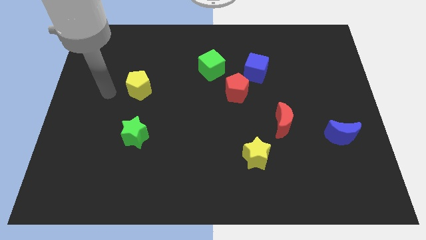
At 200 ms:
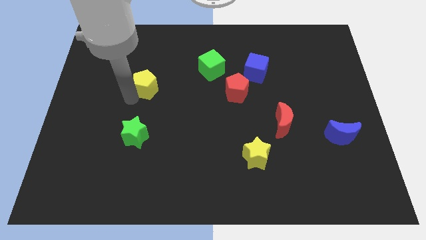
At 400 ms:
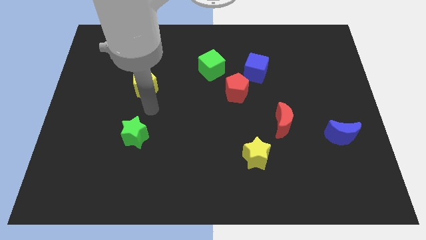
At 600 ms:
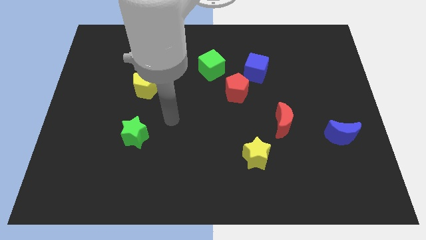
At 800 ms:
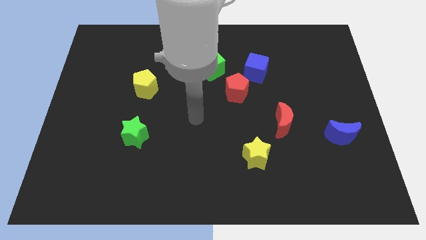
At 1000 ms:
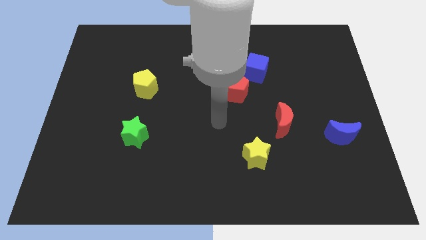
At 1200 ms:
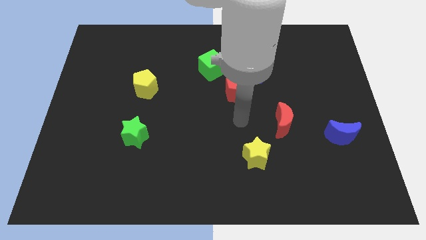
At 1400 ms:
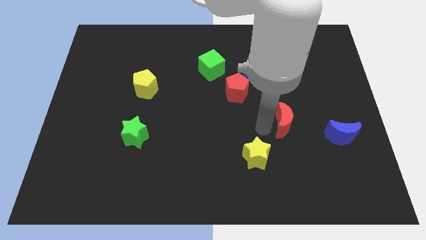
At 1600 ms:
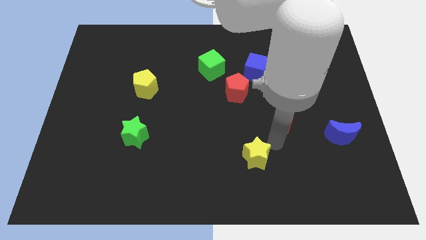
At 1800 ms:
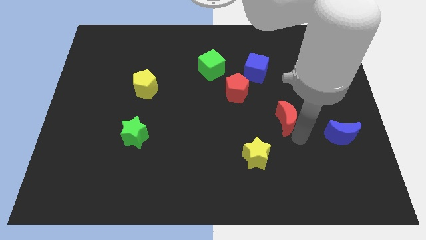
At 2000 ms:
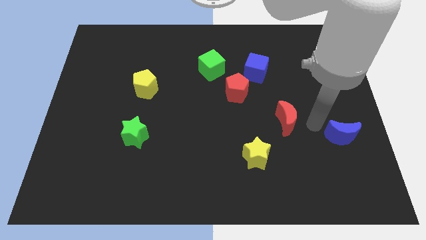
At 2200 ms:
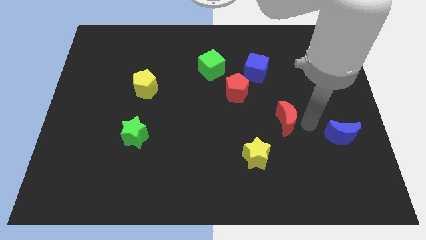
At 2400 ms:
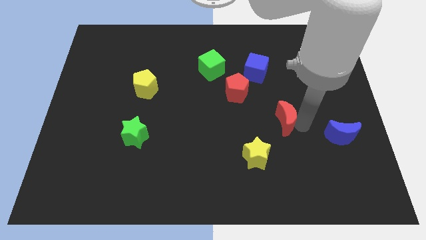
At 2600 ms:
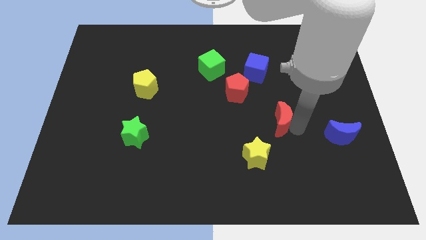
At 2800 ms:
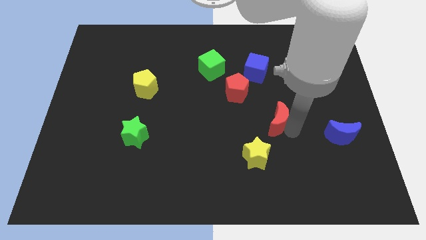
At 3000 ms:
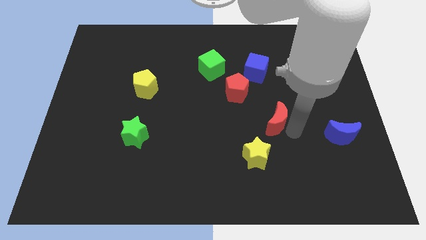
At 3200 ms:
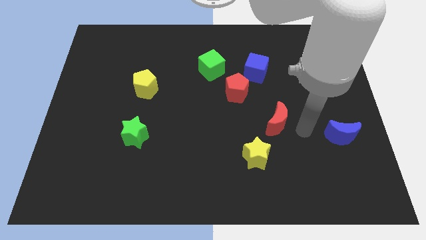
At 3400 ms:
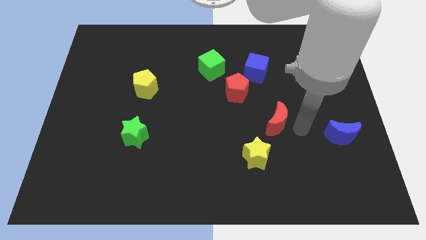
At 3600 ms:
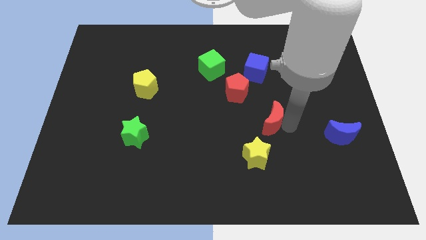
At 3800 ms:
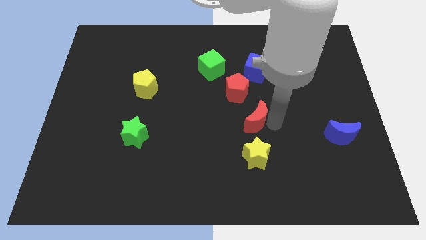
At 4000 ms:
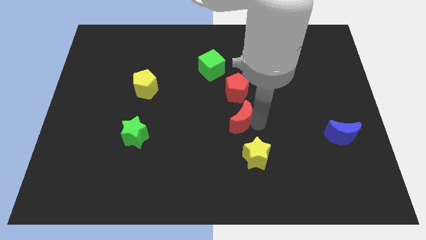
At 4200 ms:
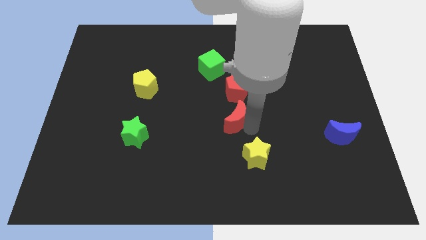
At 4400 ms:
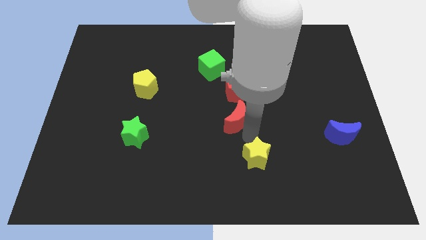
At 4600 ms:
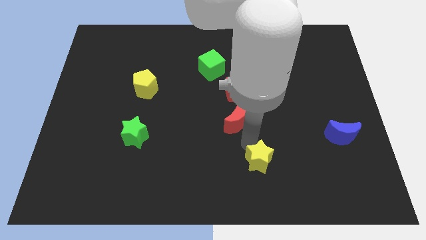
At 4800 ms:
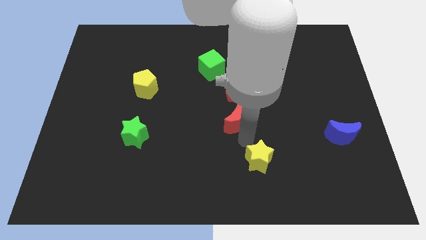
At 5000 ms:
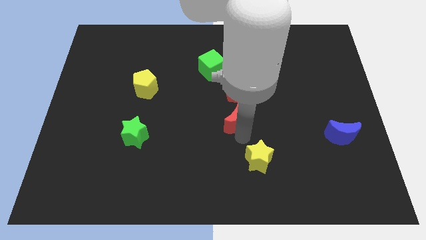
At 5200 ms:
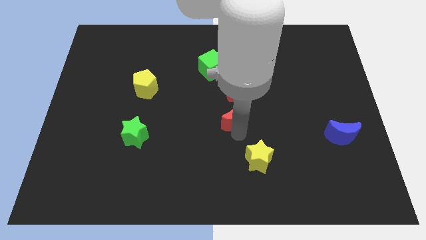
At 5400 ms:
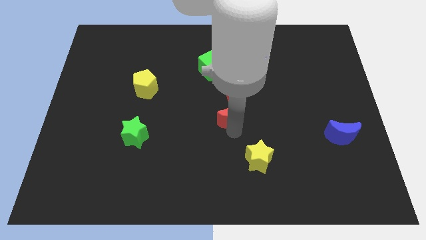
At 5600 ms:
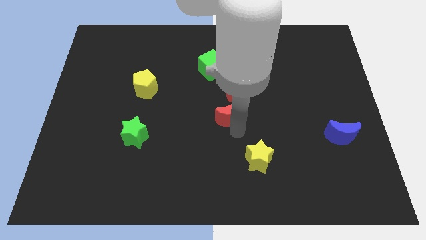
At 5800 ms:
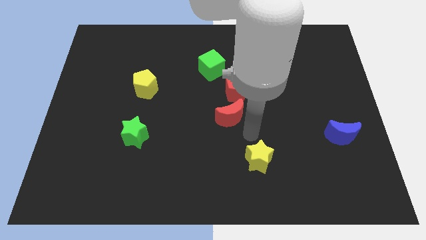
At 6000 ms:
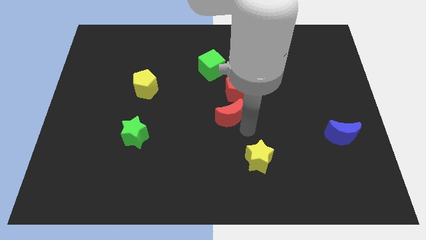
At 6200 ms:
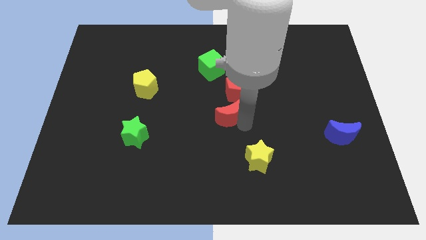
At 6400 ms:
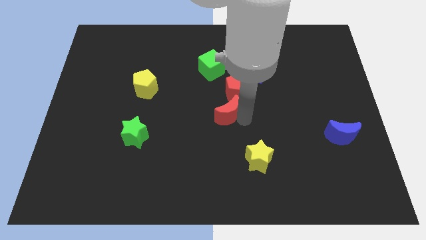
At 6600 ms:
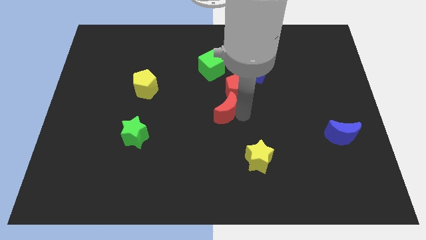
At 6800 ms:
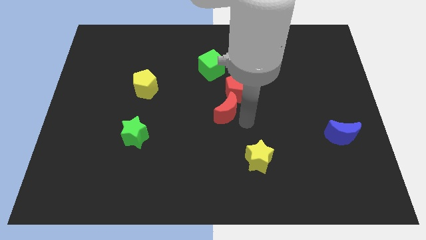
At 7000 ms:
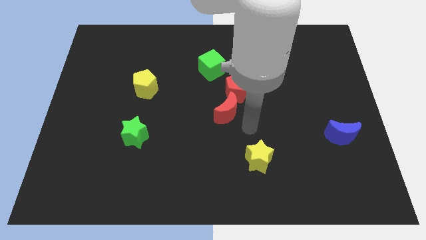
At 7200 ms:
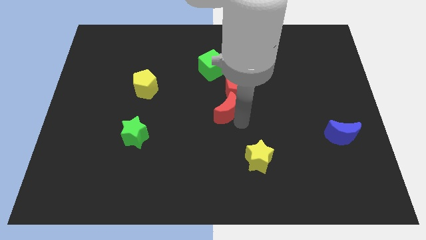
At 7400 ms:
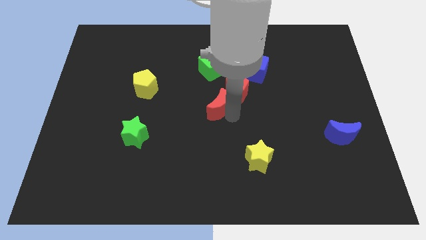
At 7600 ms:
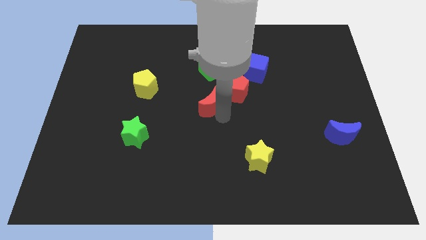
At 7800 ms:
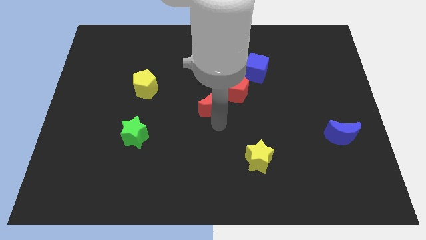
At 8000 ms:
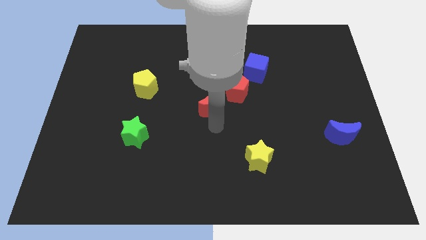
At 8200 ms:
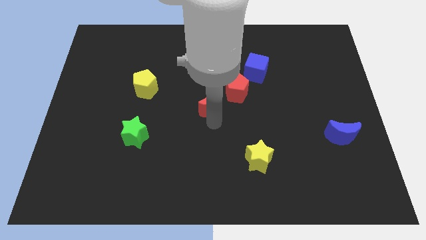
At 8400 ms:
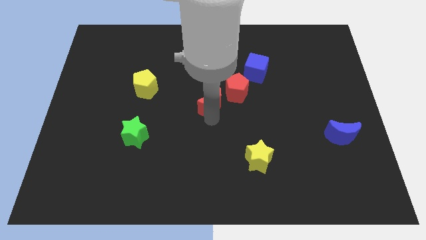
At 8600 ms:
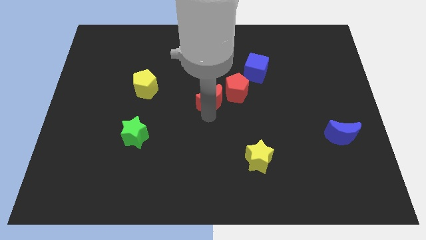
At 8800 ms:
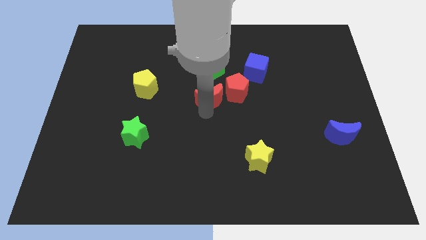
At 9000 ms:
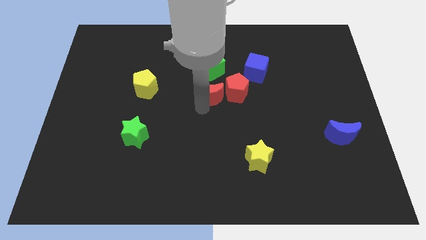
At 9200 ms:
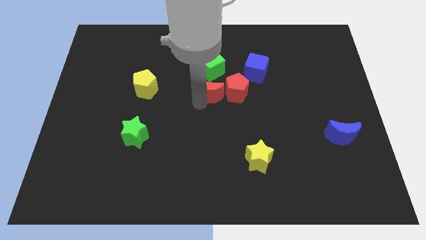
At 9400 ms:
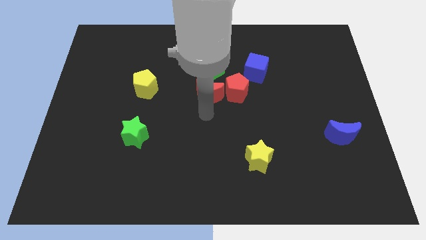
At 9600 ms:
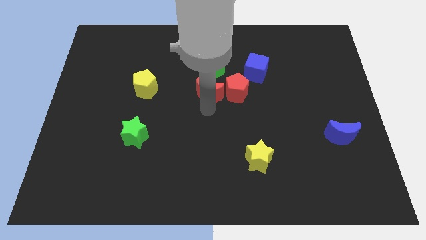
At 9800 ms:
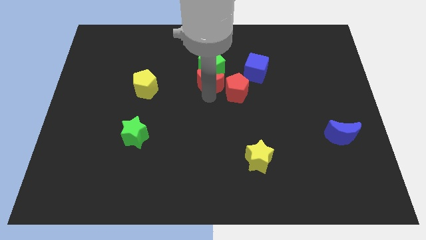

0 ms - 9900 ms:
put the red moon to the green cube

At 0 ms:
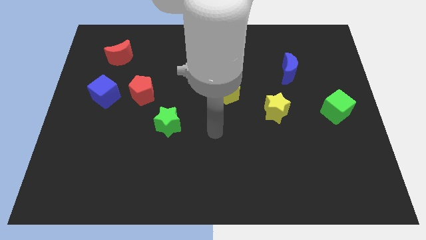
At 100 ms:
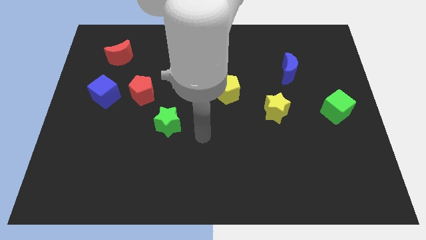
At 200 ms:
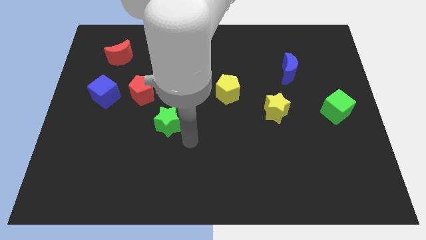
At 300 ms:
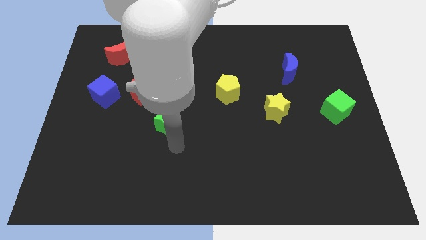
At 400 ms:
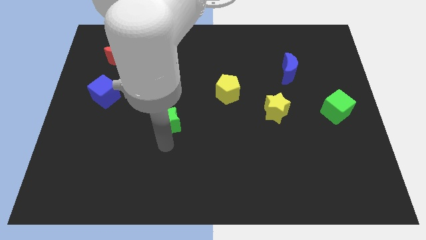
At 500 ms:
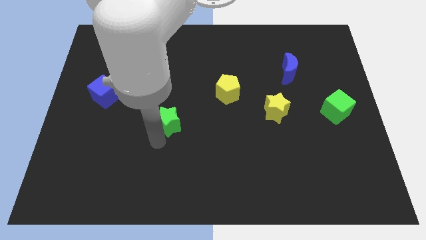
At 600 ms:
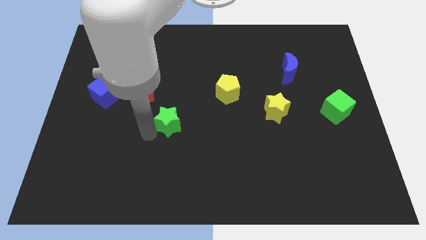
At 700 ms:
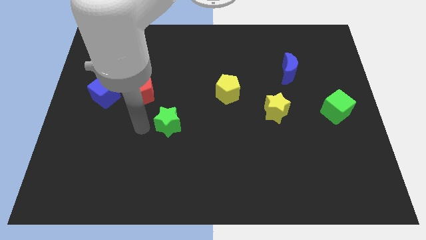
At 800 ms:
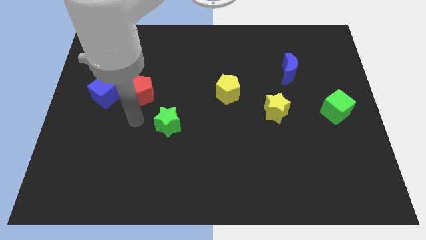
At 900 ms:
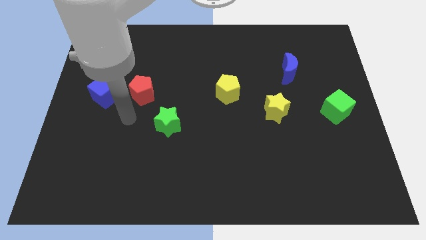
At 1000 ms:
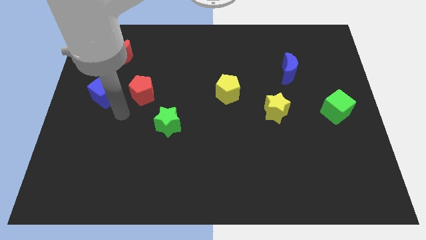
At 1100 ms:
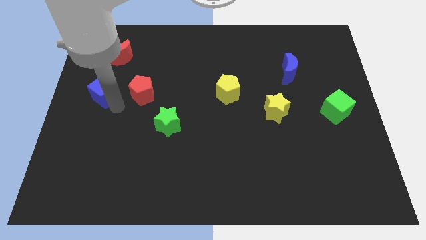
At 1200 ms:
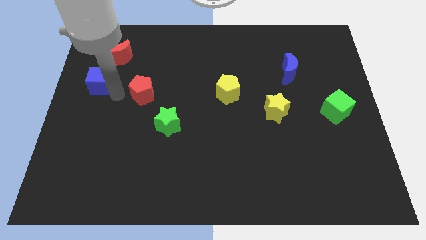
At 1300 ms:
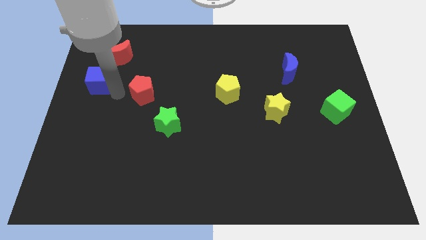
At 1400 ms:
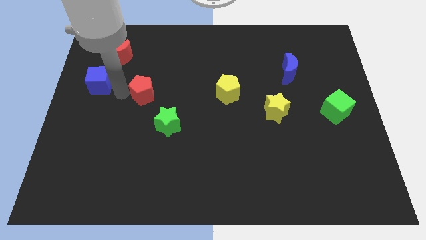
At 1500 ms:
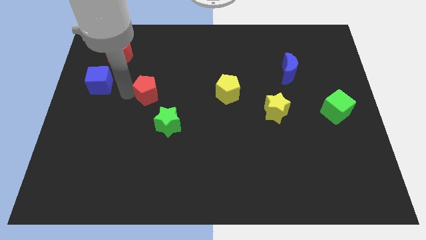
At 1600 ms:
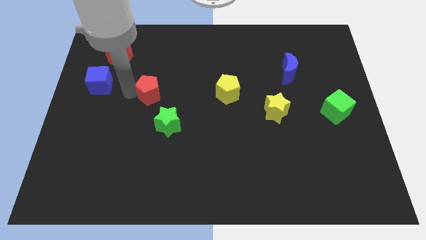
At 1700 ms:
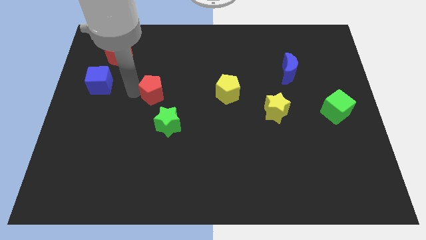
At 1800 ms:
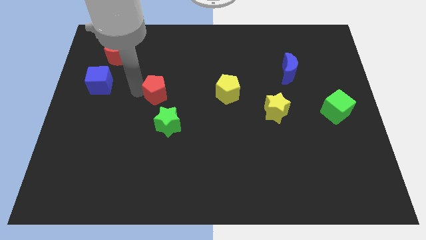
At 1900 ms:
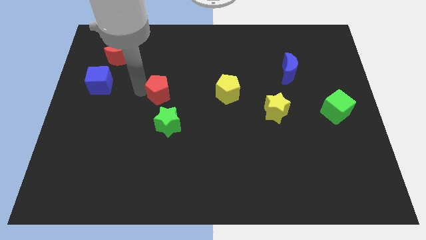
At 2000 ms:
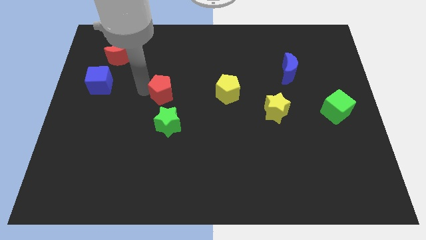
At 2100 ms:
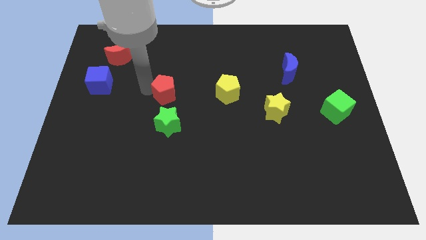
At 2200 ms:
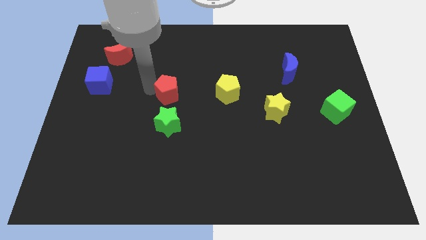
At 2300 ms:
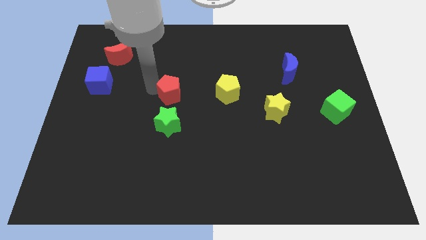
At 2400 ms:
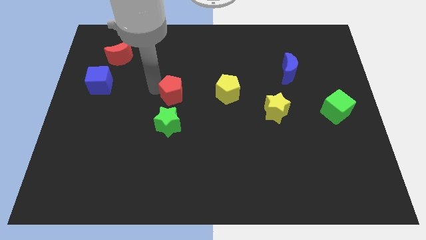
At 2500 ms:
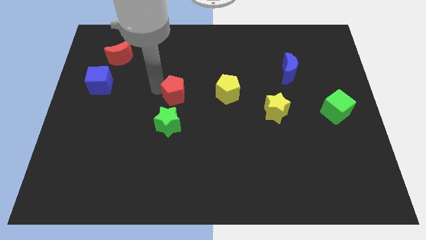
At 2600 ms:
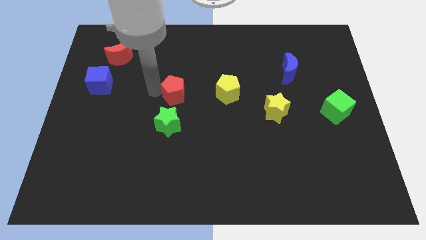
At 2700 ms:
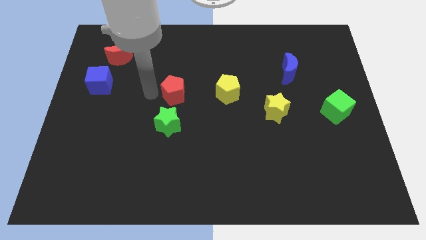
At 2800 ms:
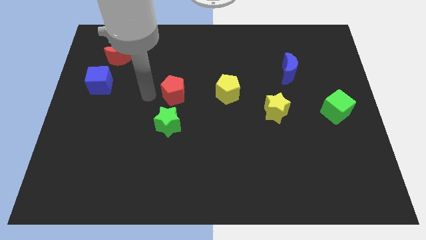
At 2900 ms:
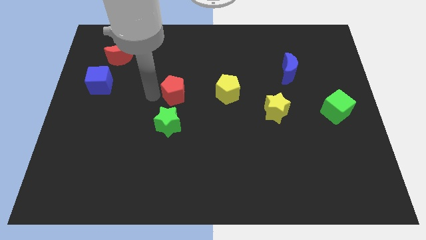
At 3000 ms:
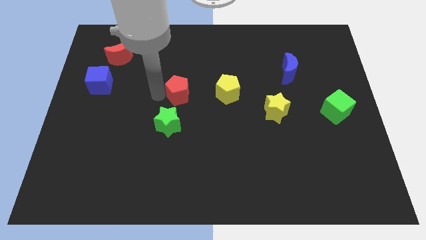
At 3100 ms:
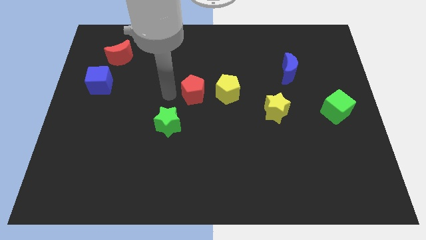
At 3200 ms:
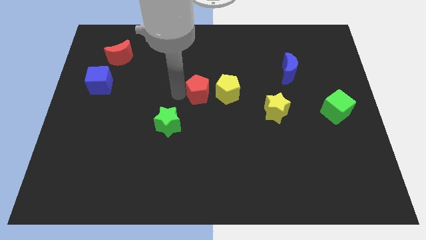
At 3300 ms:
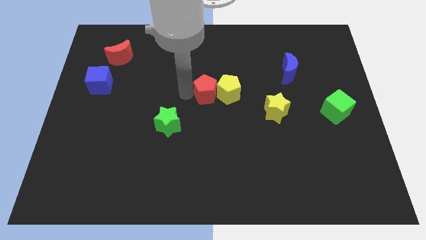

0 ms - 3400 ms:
slide the red pentagon next to the yellow pentagon
